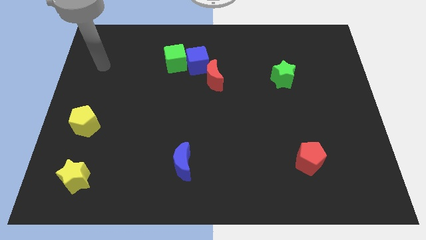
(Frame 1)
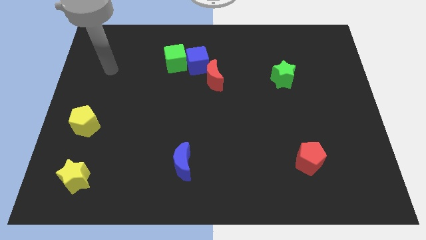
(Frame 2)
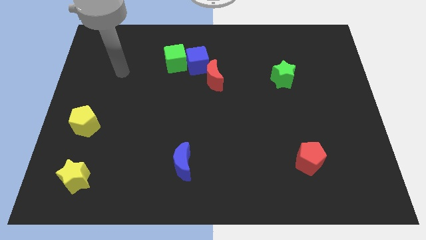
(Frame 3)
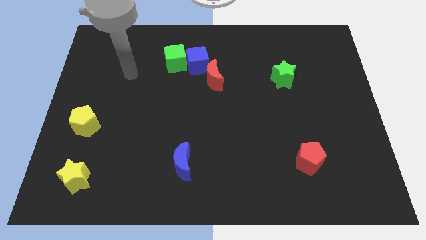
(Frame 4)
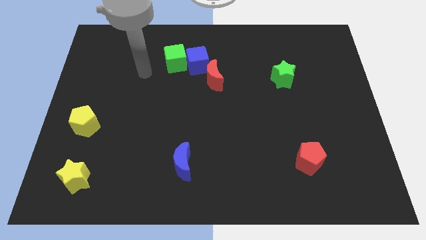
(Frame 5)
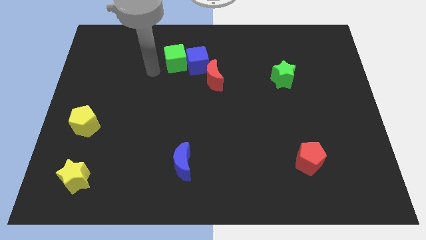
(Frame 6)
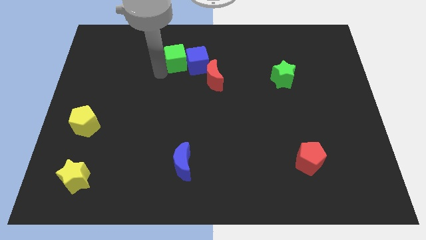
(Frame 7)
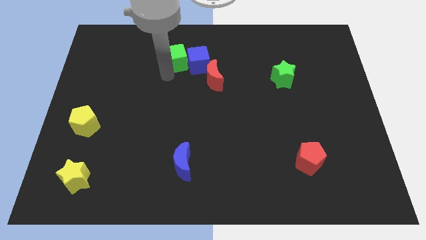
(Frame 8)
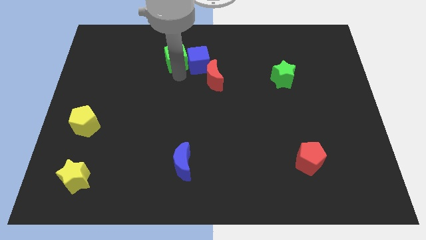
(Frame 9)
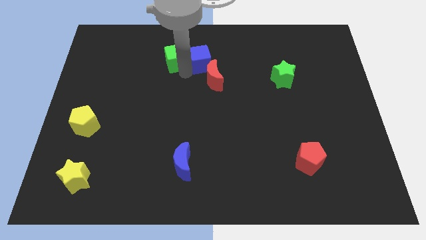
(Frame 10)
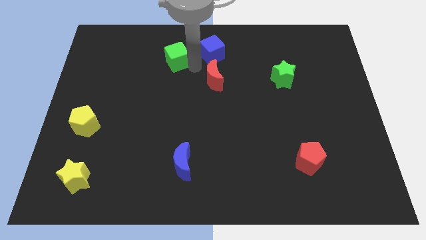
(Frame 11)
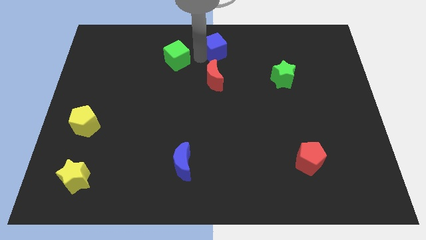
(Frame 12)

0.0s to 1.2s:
move the green cube away from the blue cube

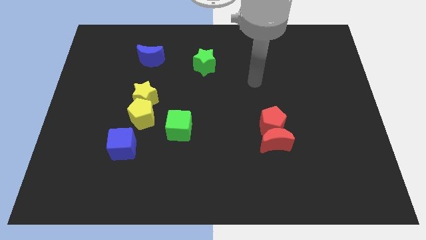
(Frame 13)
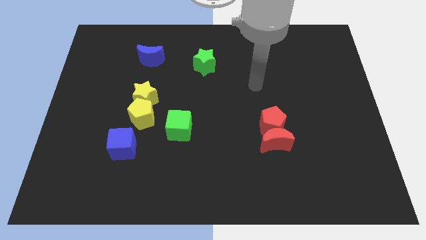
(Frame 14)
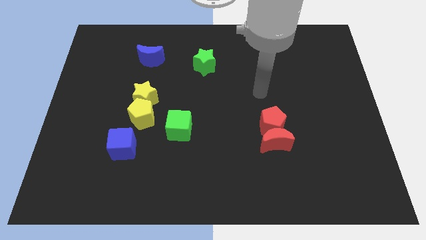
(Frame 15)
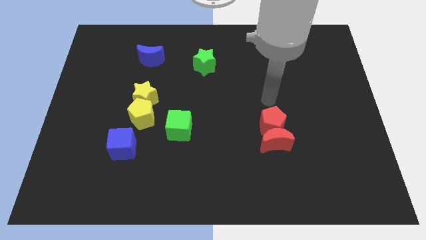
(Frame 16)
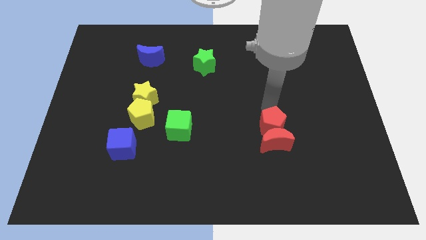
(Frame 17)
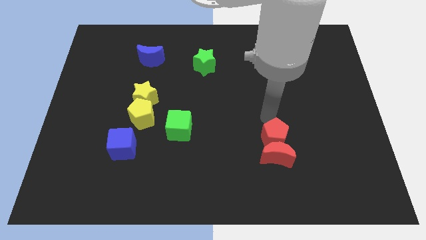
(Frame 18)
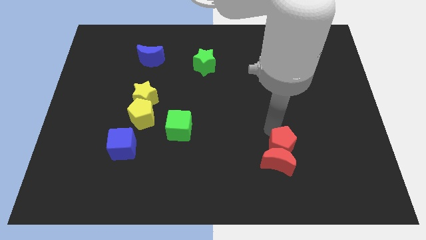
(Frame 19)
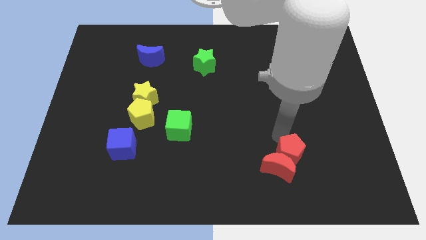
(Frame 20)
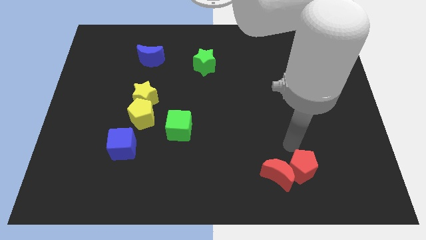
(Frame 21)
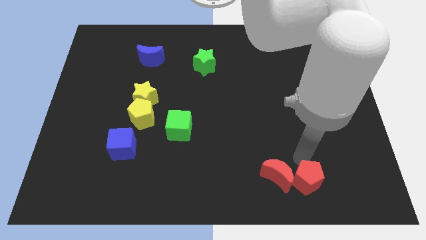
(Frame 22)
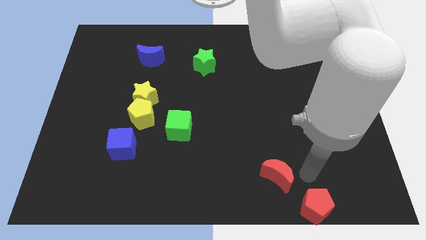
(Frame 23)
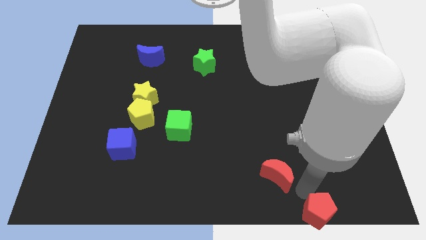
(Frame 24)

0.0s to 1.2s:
move the red moon away from the red pentagon

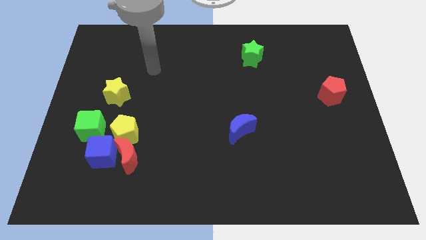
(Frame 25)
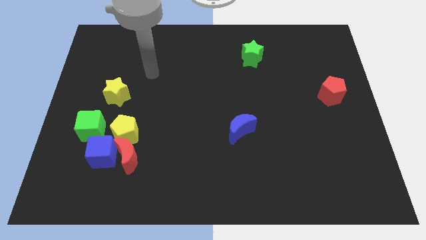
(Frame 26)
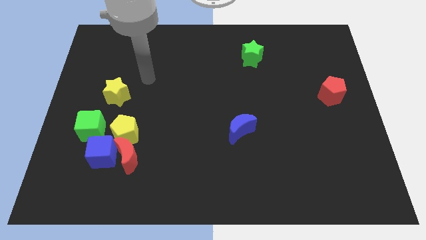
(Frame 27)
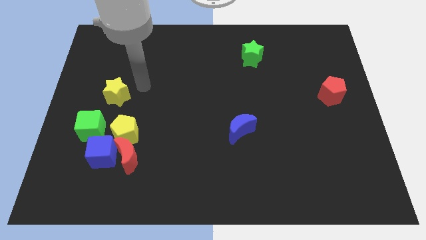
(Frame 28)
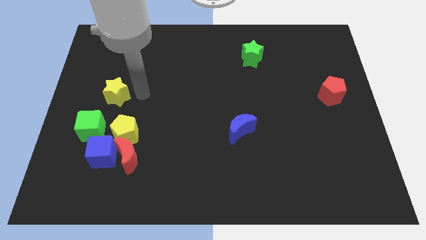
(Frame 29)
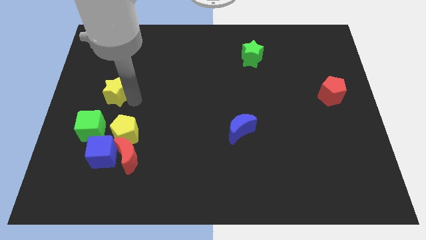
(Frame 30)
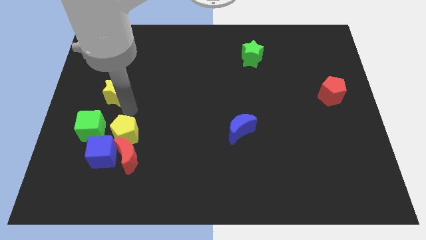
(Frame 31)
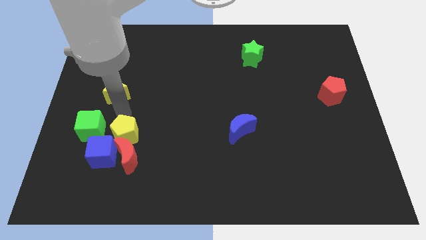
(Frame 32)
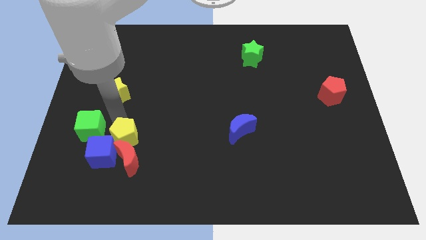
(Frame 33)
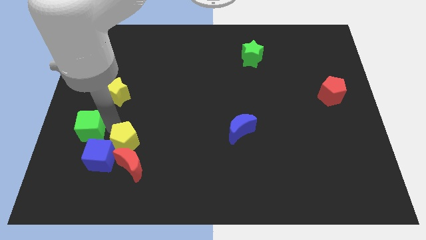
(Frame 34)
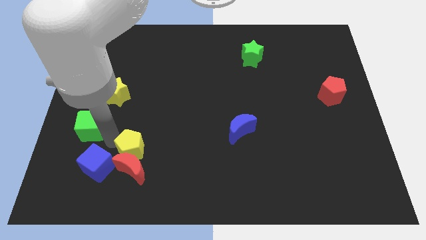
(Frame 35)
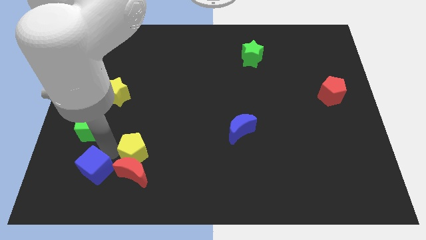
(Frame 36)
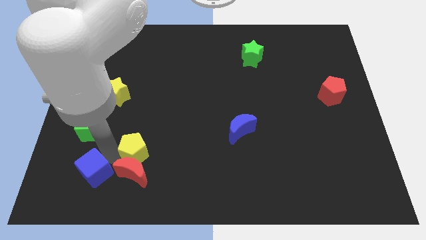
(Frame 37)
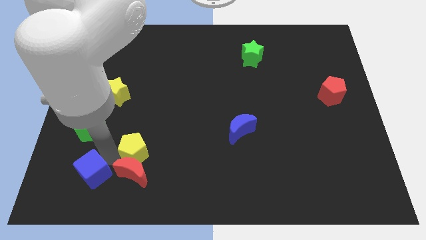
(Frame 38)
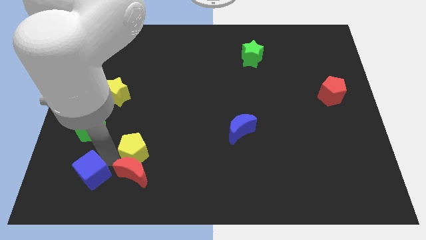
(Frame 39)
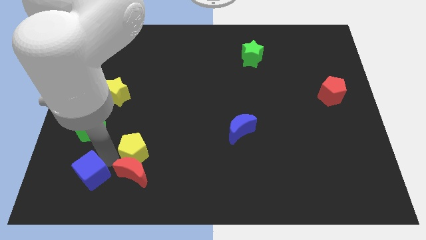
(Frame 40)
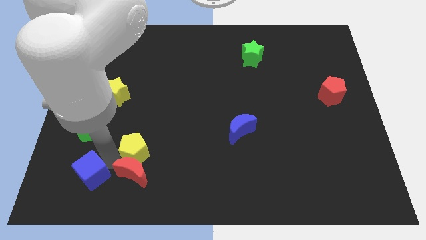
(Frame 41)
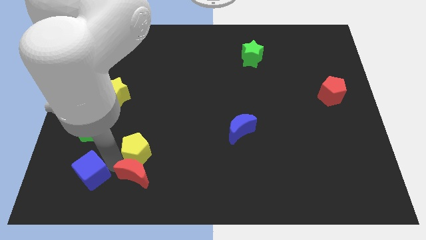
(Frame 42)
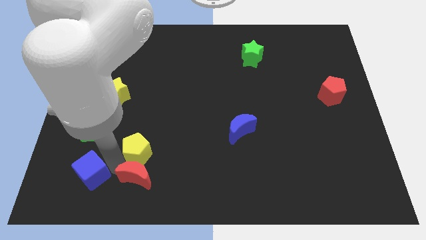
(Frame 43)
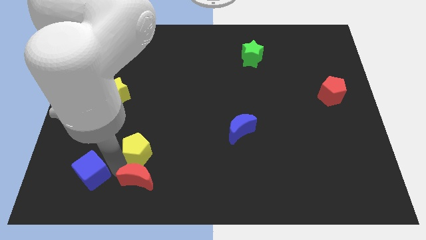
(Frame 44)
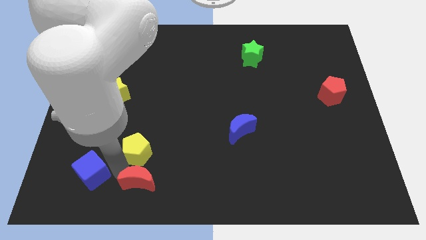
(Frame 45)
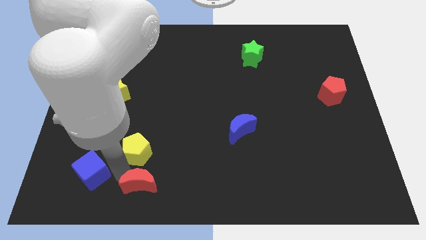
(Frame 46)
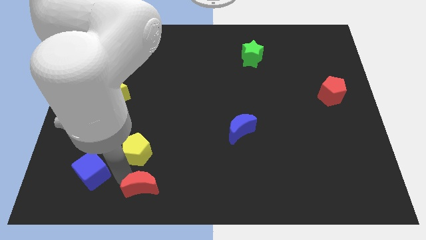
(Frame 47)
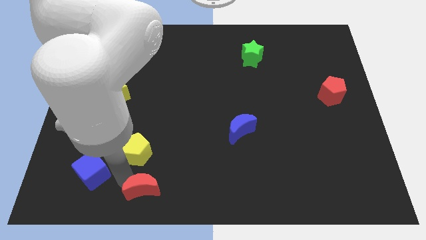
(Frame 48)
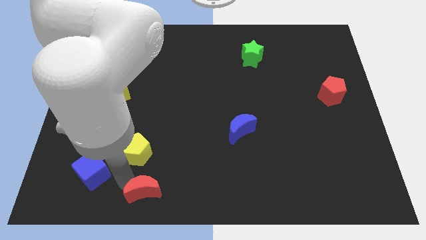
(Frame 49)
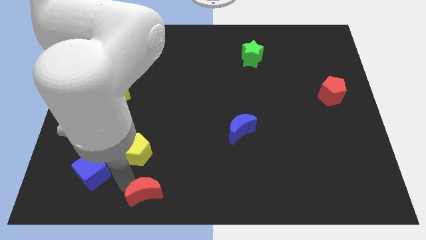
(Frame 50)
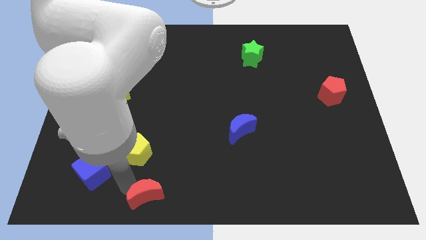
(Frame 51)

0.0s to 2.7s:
pull the red moon apart from the blue cube and yellow pentagon

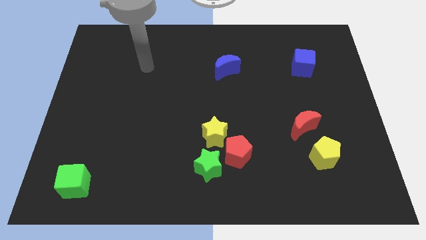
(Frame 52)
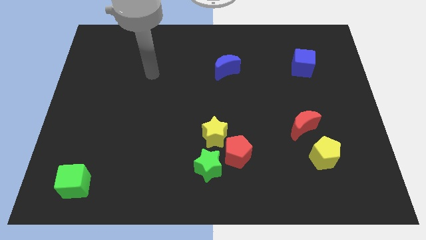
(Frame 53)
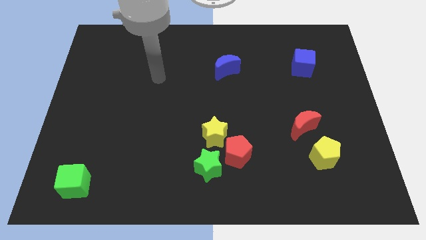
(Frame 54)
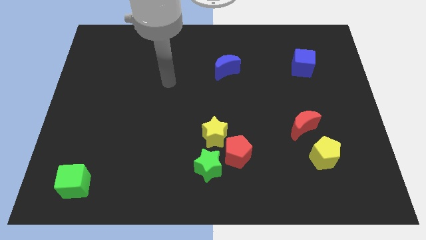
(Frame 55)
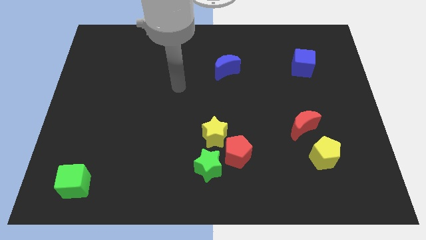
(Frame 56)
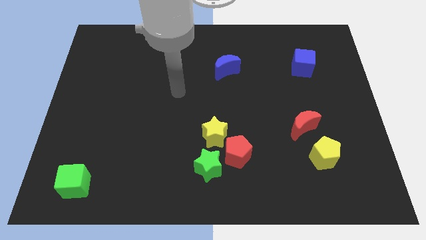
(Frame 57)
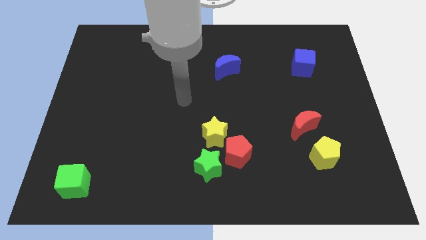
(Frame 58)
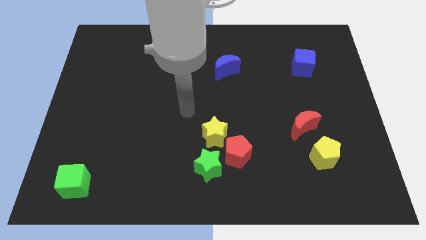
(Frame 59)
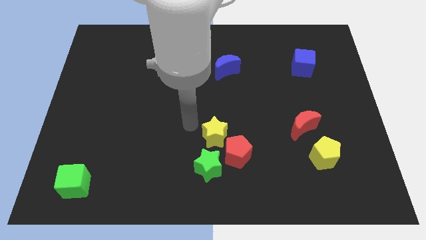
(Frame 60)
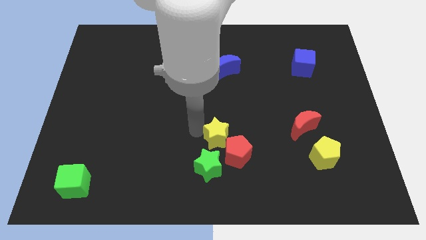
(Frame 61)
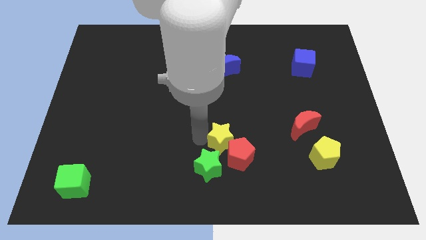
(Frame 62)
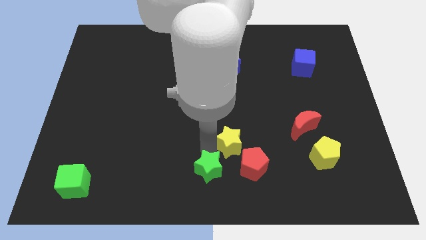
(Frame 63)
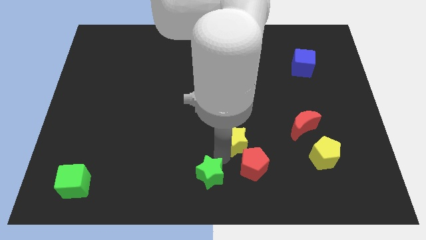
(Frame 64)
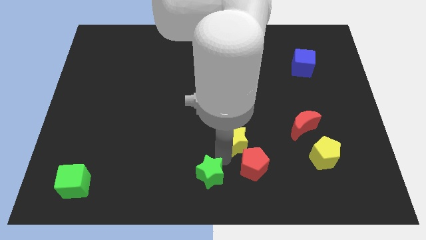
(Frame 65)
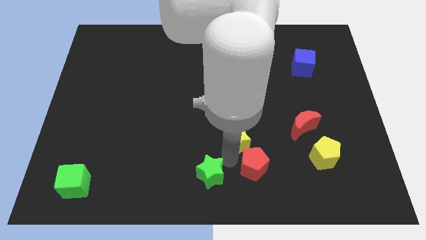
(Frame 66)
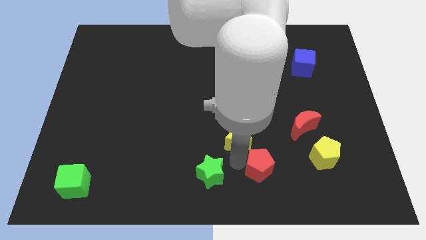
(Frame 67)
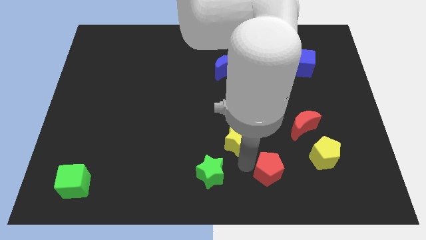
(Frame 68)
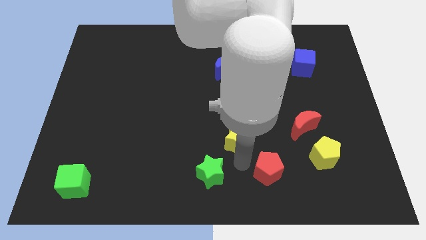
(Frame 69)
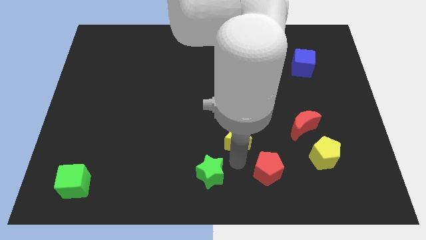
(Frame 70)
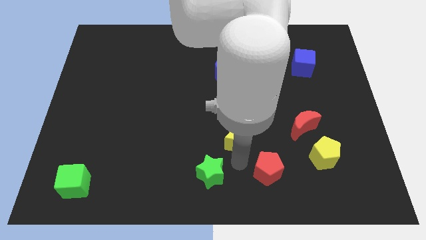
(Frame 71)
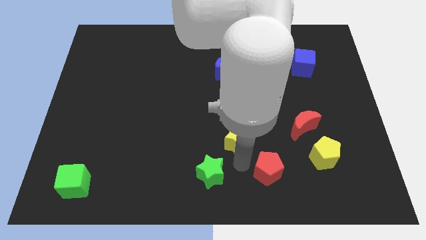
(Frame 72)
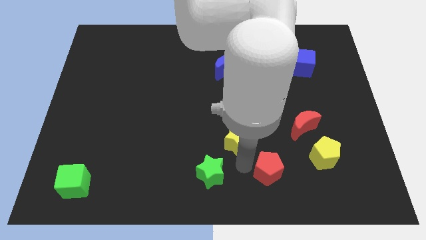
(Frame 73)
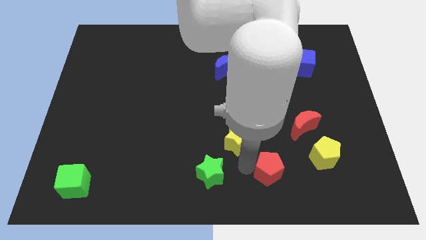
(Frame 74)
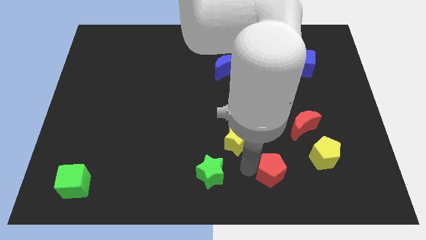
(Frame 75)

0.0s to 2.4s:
move the red pentagon away from the green star and yellow star

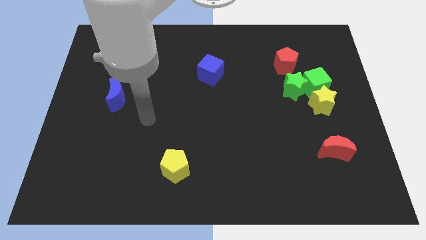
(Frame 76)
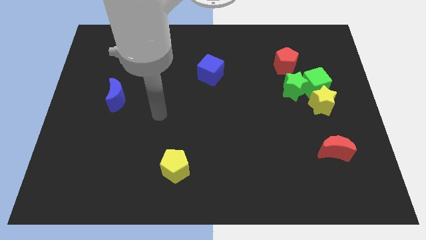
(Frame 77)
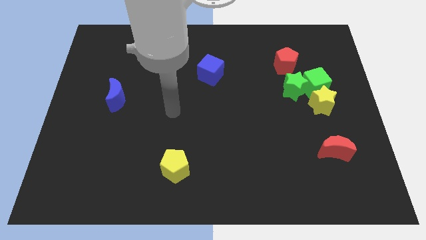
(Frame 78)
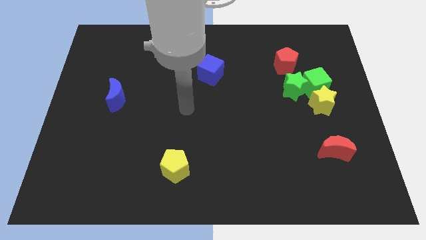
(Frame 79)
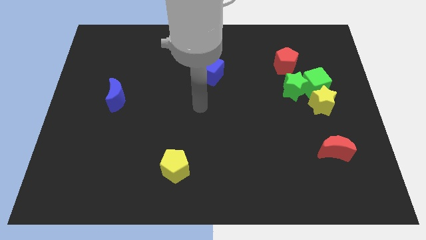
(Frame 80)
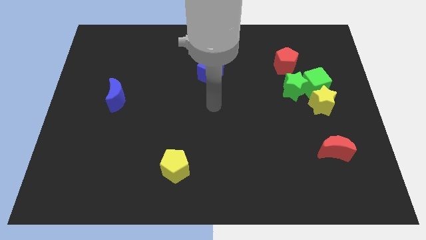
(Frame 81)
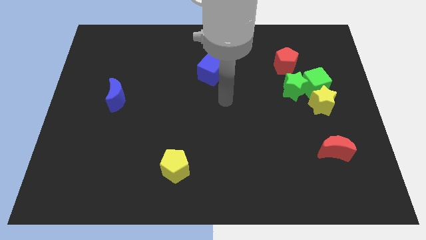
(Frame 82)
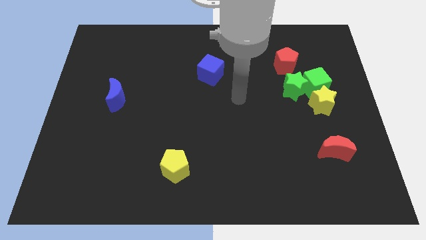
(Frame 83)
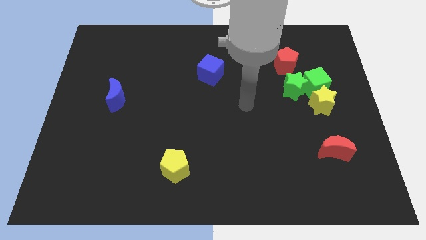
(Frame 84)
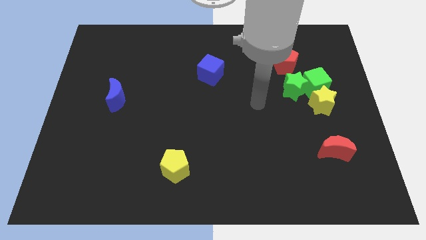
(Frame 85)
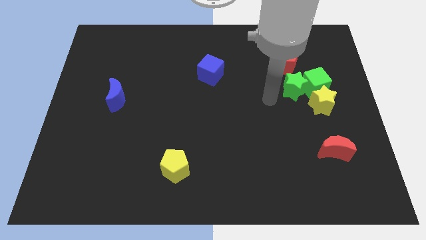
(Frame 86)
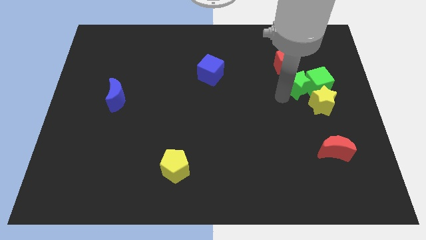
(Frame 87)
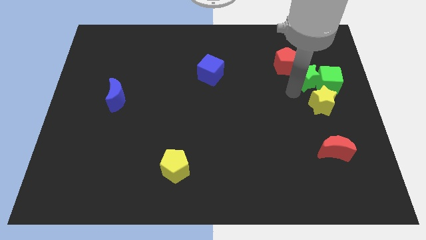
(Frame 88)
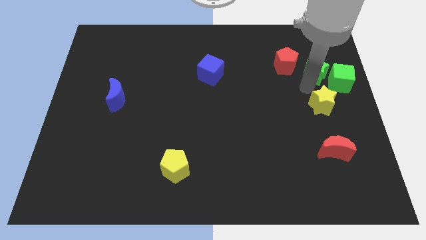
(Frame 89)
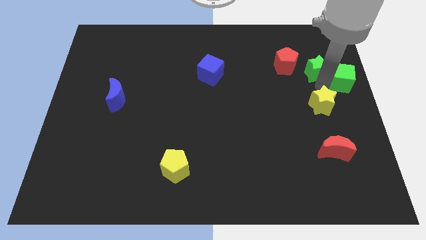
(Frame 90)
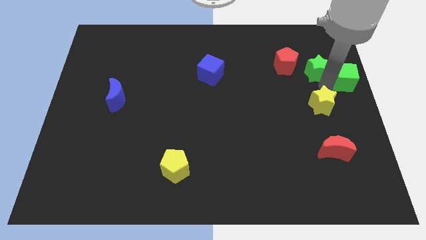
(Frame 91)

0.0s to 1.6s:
separate the yellow star from the green cube and green star

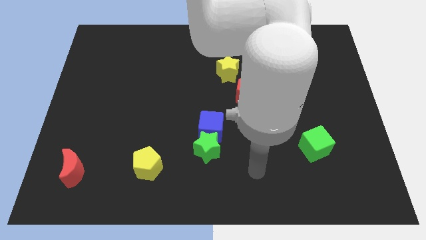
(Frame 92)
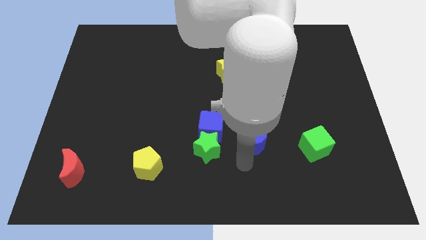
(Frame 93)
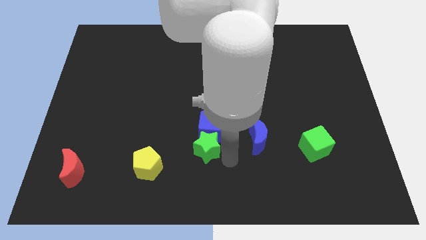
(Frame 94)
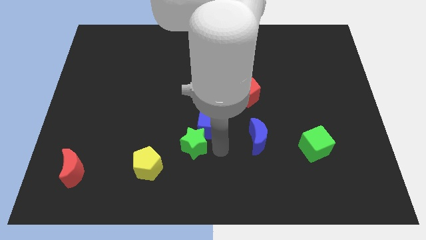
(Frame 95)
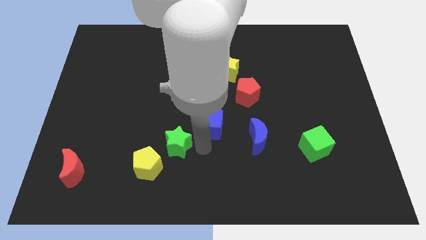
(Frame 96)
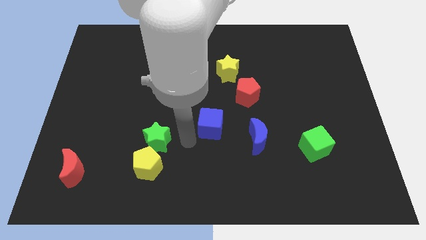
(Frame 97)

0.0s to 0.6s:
move the blue cube away from the green star
